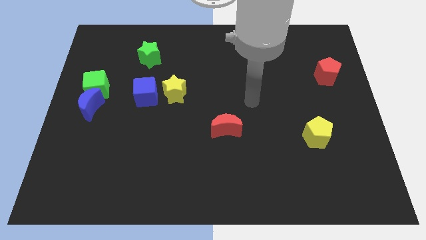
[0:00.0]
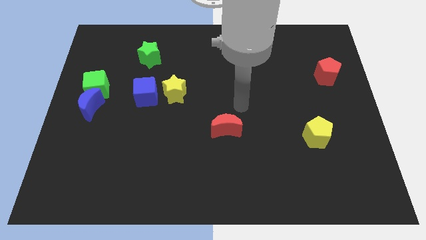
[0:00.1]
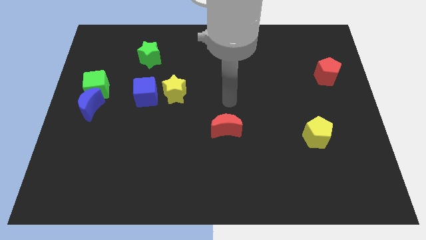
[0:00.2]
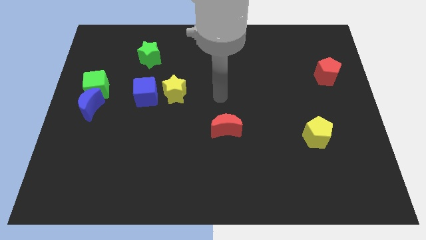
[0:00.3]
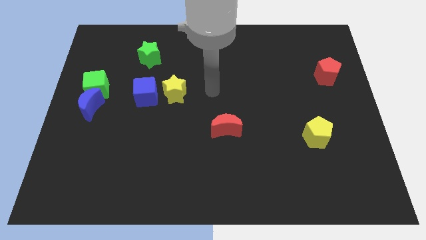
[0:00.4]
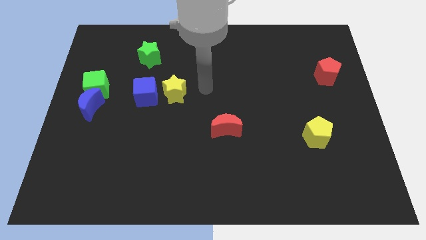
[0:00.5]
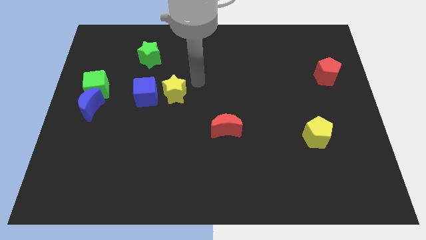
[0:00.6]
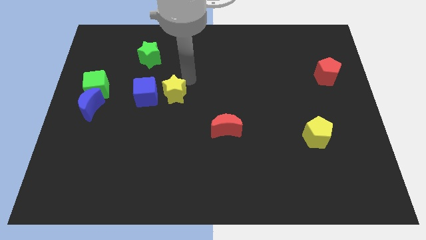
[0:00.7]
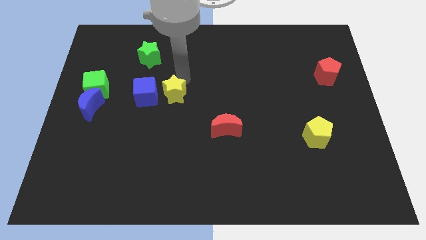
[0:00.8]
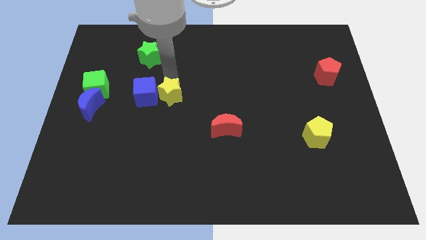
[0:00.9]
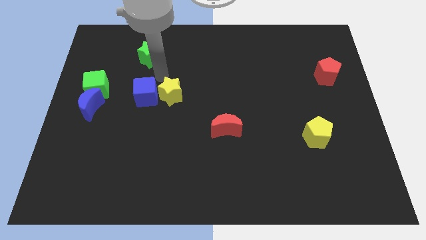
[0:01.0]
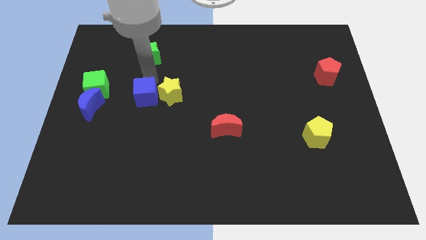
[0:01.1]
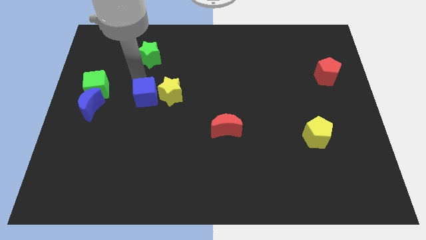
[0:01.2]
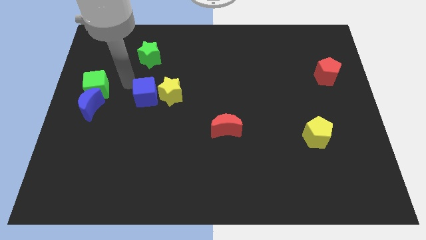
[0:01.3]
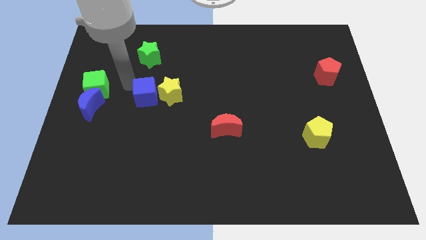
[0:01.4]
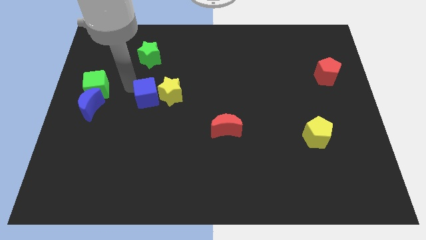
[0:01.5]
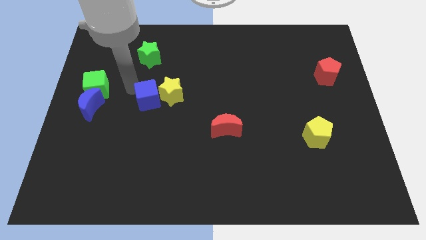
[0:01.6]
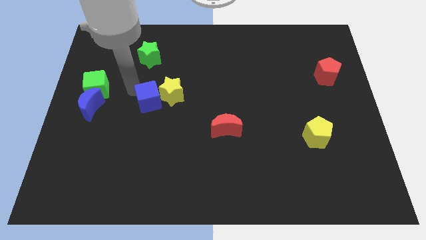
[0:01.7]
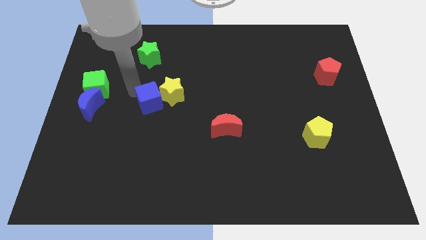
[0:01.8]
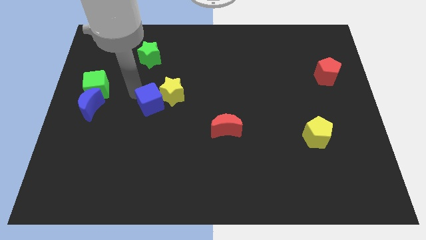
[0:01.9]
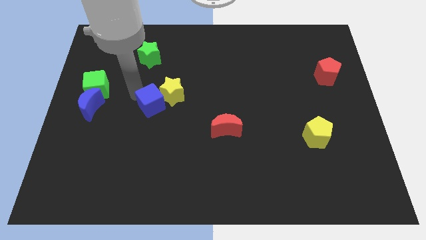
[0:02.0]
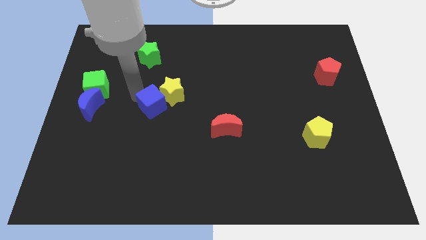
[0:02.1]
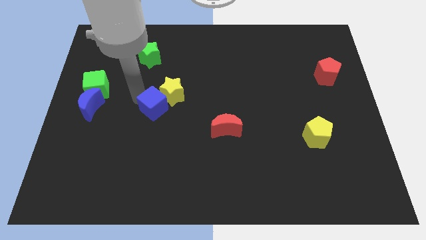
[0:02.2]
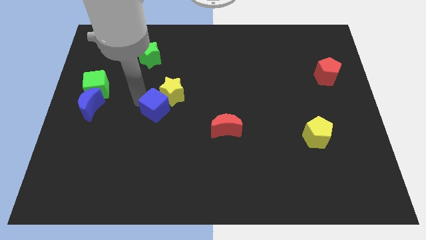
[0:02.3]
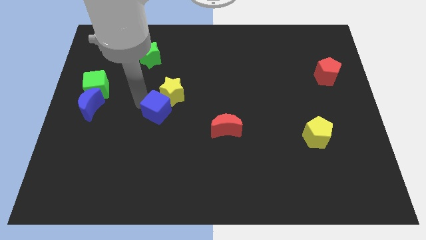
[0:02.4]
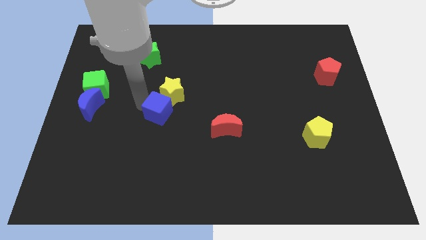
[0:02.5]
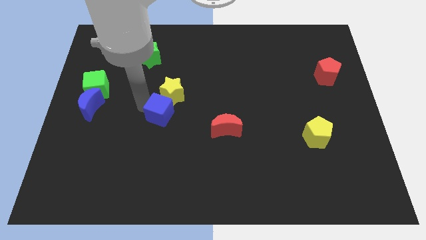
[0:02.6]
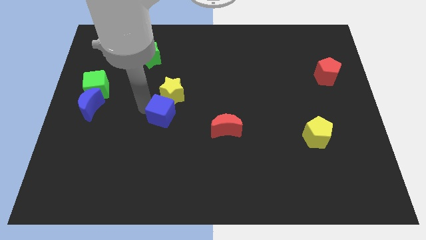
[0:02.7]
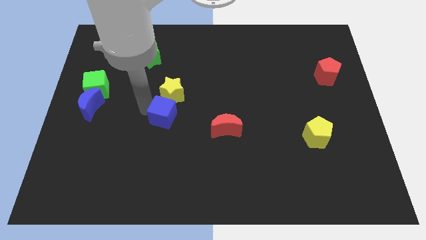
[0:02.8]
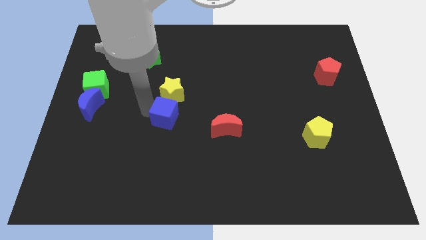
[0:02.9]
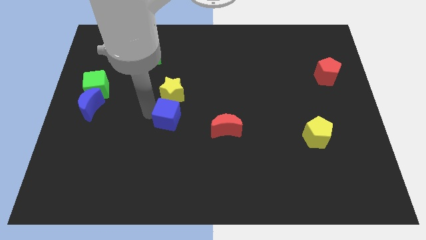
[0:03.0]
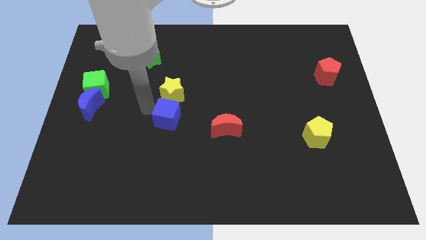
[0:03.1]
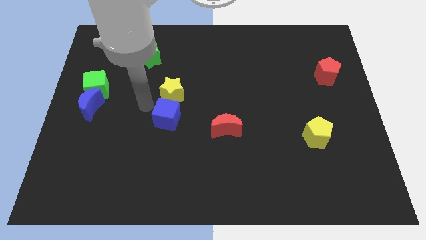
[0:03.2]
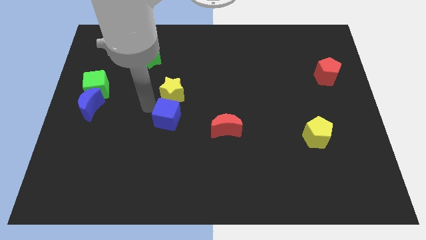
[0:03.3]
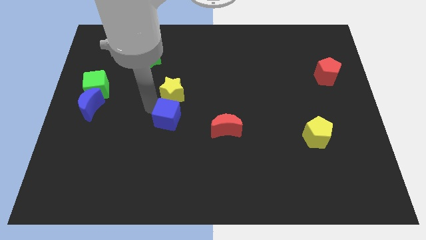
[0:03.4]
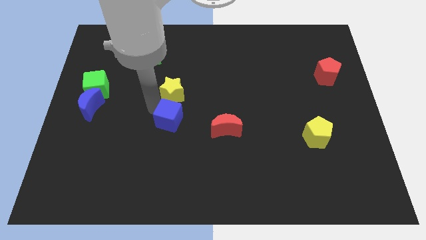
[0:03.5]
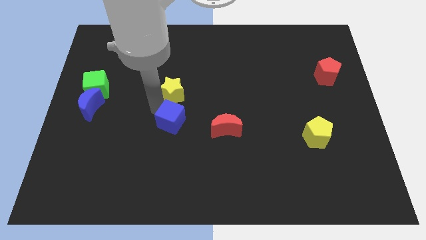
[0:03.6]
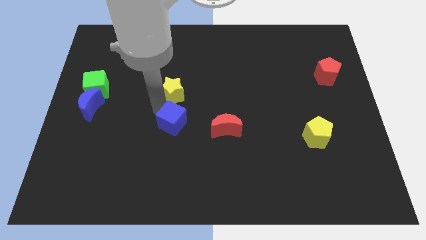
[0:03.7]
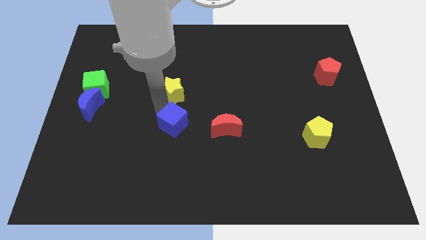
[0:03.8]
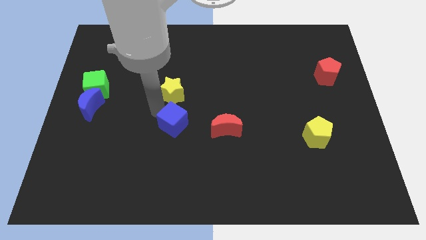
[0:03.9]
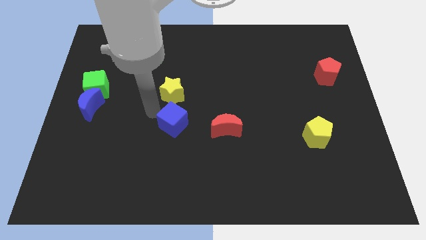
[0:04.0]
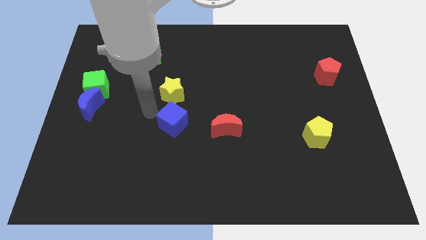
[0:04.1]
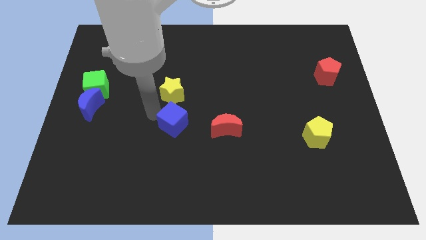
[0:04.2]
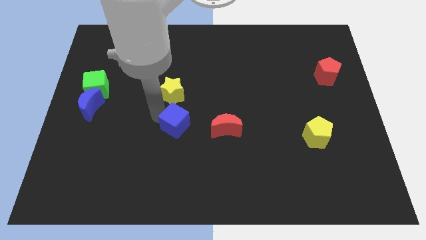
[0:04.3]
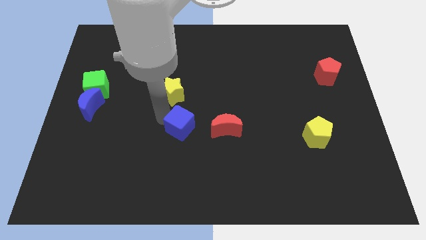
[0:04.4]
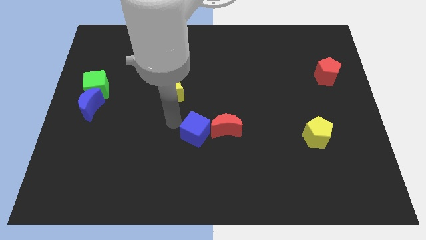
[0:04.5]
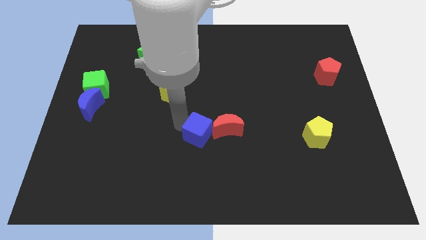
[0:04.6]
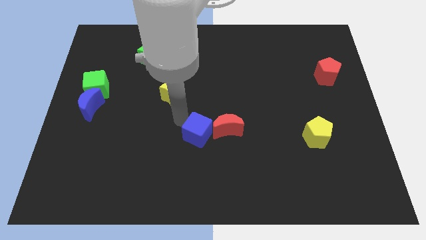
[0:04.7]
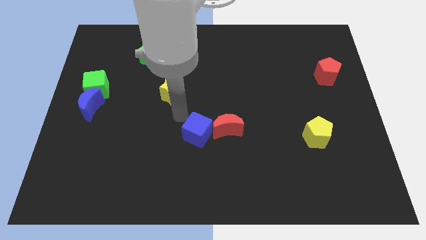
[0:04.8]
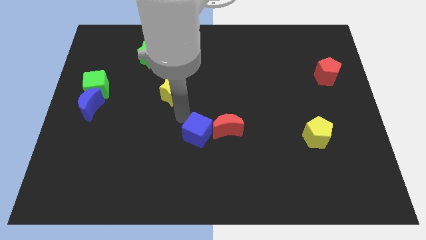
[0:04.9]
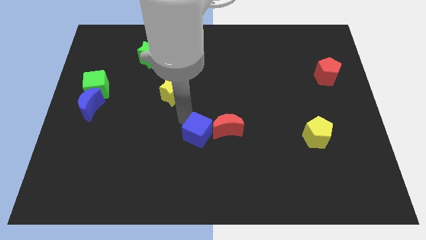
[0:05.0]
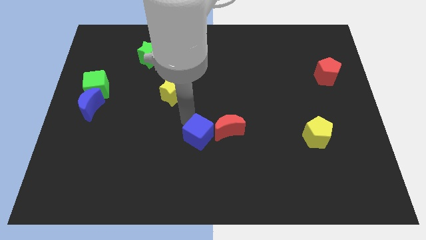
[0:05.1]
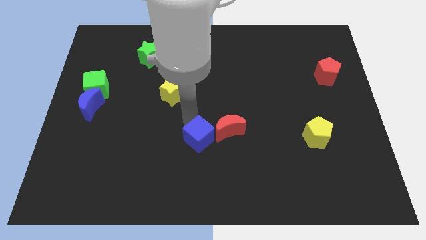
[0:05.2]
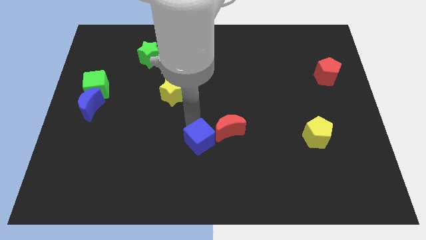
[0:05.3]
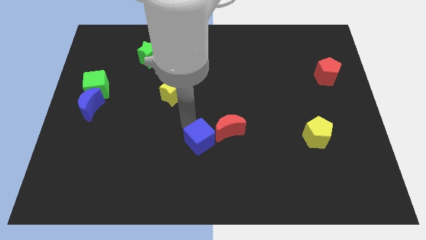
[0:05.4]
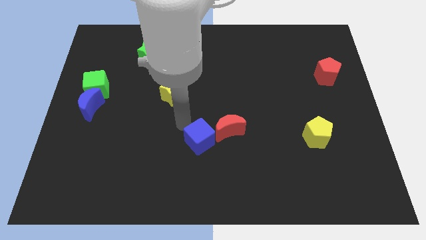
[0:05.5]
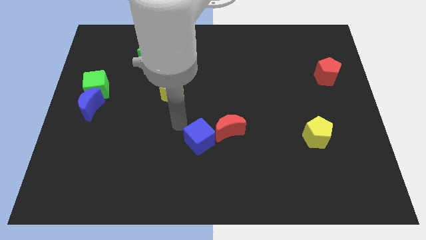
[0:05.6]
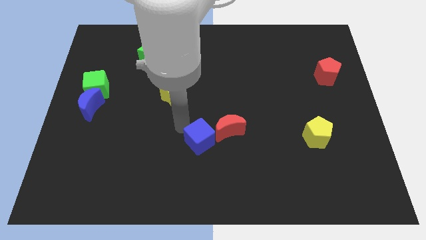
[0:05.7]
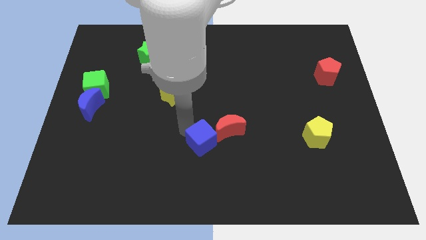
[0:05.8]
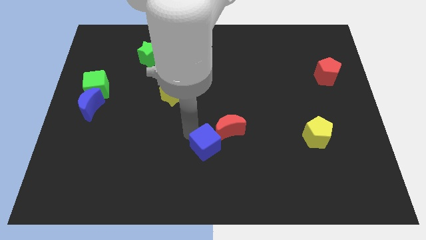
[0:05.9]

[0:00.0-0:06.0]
move the blue cube diagonally downwards and to the right

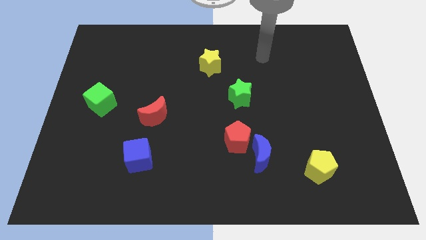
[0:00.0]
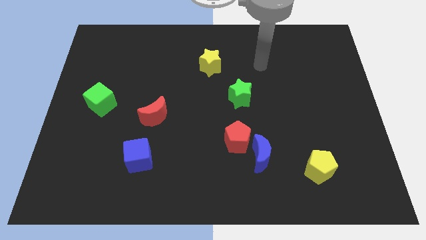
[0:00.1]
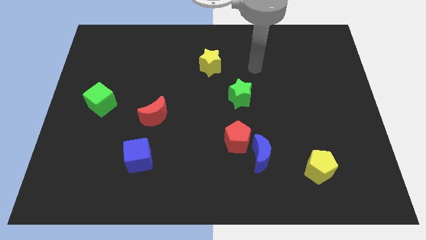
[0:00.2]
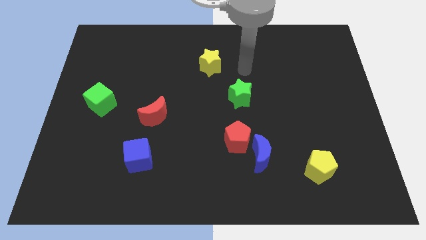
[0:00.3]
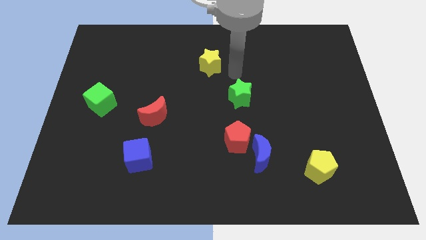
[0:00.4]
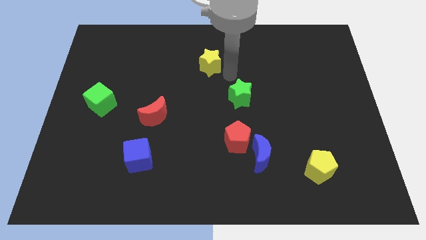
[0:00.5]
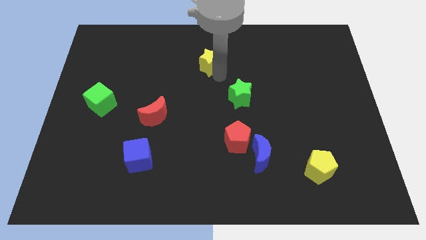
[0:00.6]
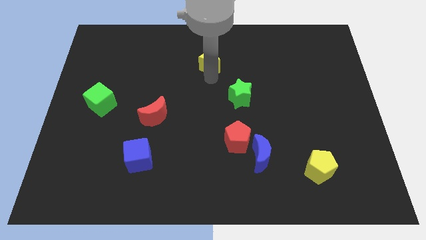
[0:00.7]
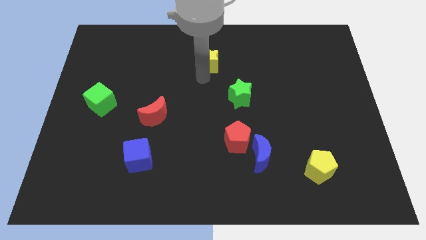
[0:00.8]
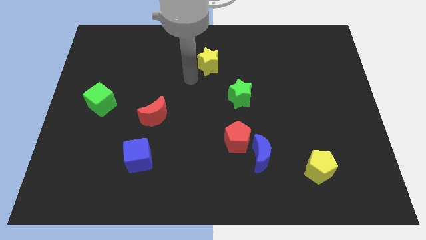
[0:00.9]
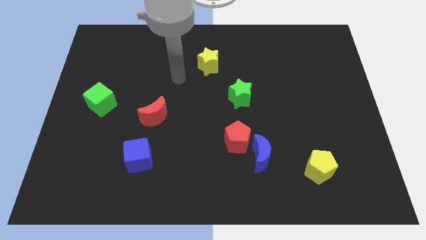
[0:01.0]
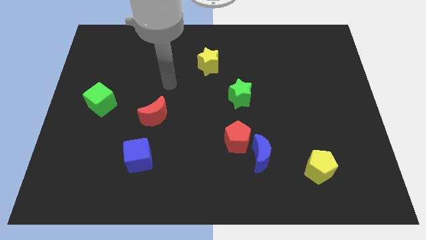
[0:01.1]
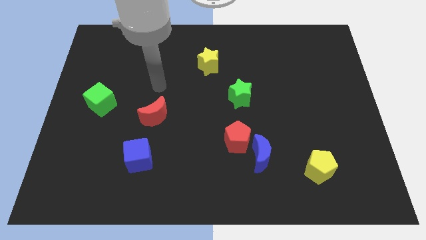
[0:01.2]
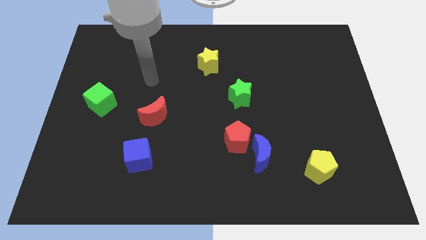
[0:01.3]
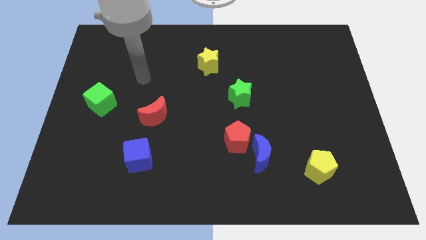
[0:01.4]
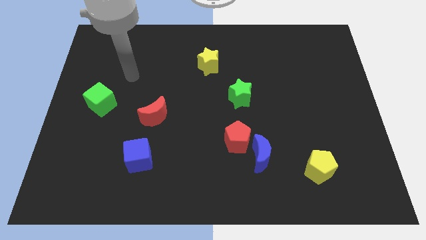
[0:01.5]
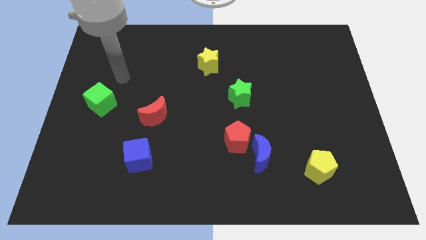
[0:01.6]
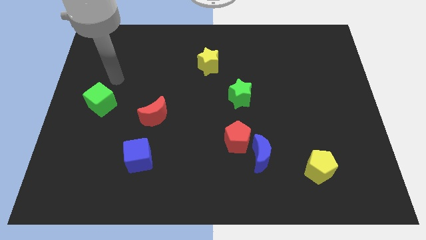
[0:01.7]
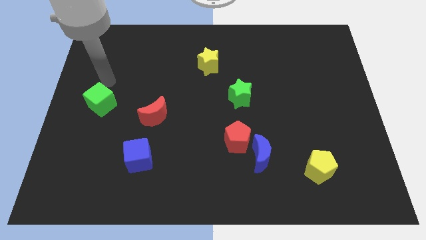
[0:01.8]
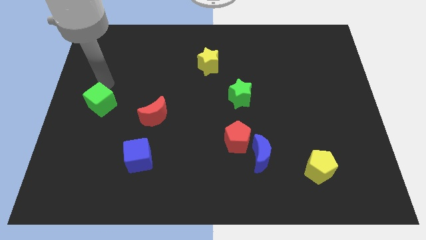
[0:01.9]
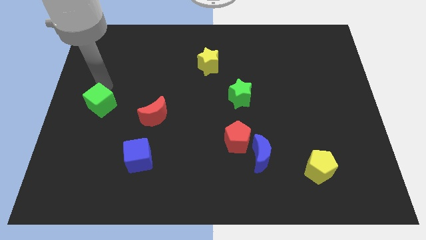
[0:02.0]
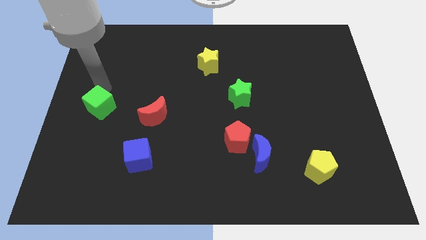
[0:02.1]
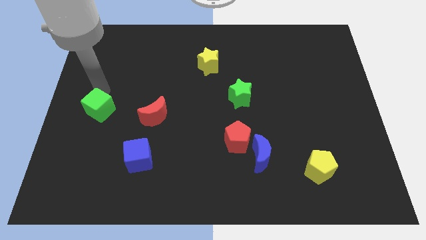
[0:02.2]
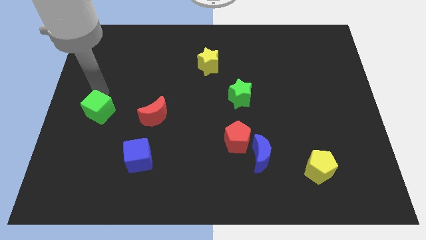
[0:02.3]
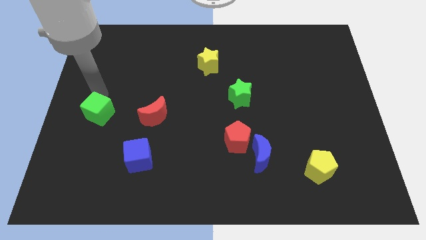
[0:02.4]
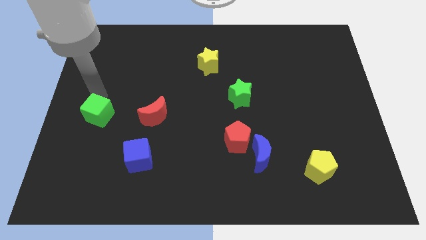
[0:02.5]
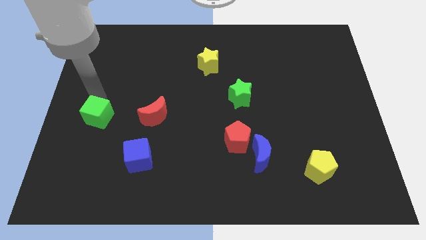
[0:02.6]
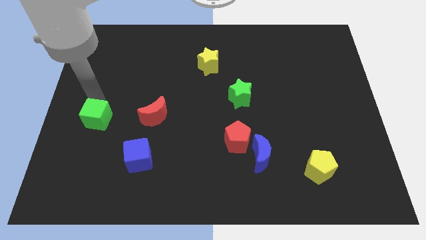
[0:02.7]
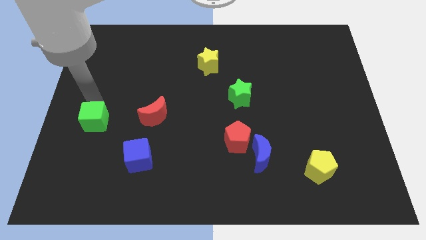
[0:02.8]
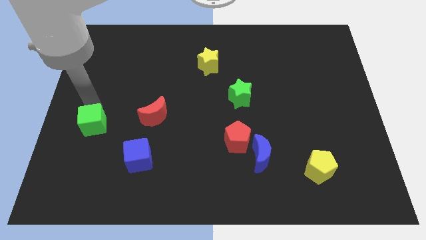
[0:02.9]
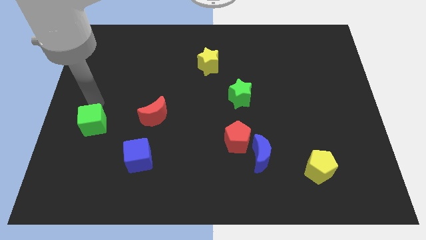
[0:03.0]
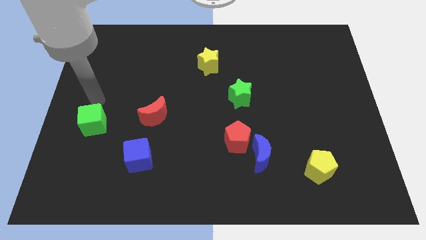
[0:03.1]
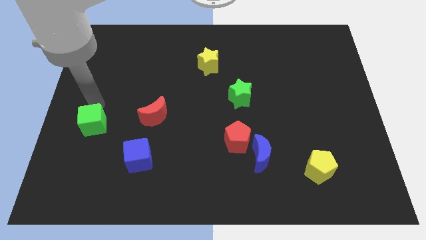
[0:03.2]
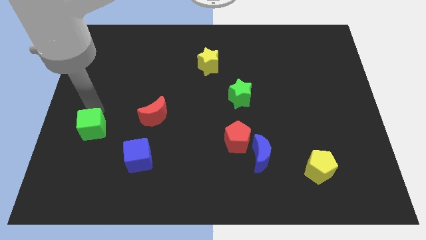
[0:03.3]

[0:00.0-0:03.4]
slide the green cube a little bit down
